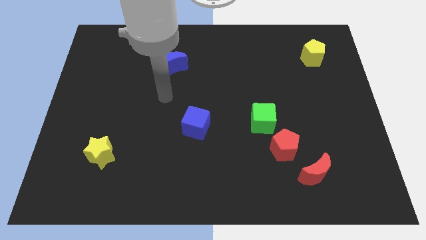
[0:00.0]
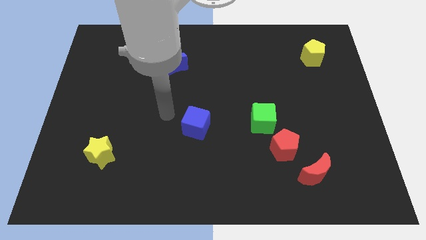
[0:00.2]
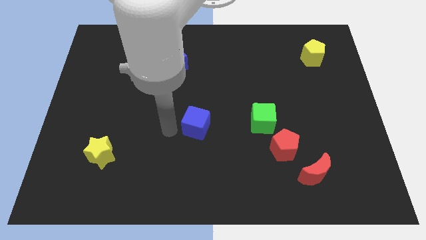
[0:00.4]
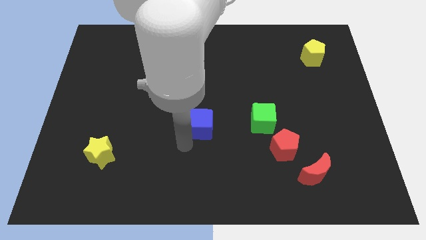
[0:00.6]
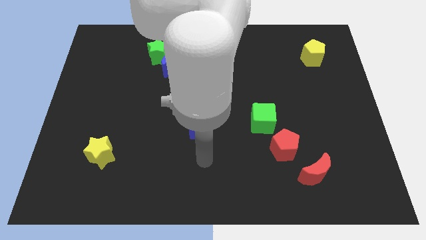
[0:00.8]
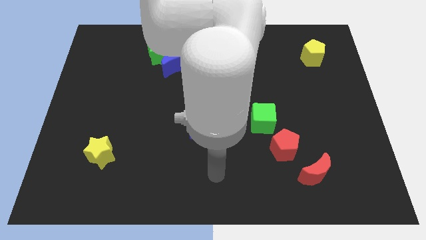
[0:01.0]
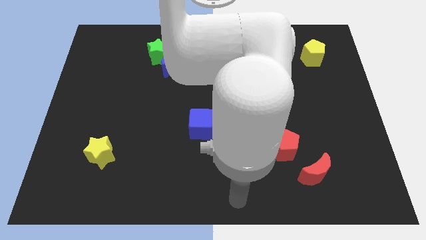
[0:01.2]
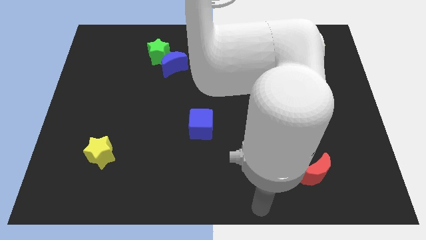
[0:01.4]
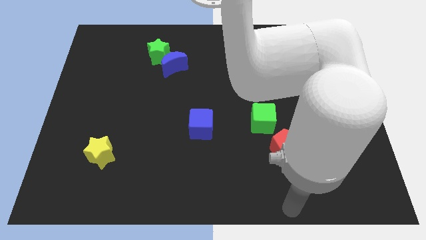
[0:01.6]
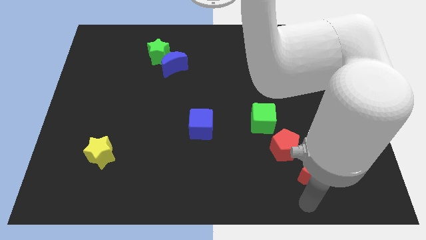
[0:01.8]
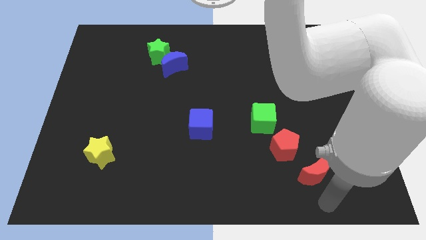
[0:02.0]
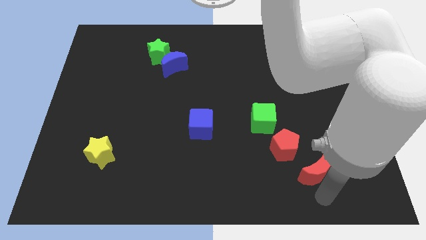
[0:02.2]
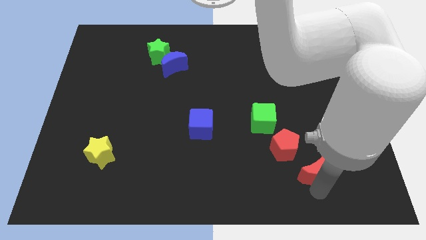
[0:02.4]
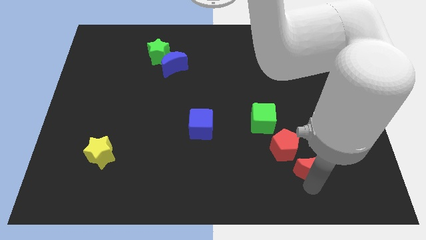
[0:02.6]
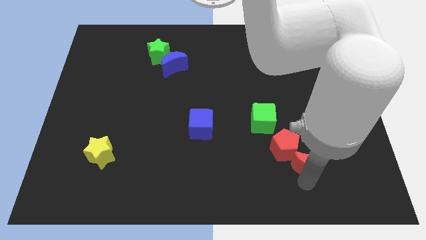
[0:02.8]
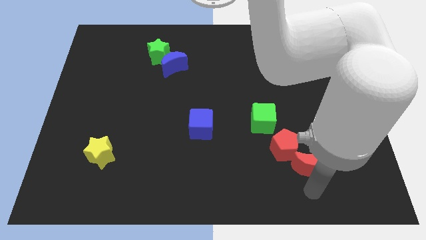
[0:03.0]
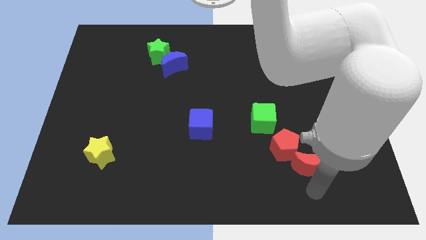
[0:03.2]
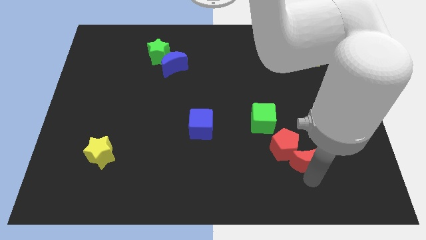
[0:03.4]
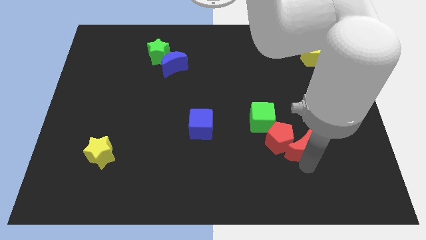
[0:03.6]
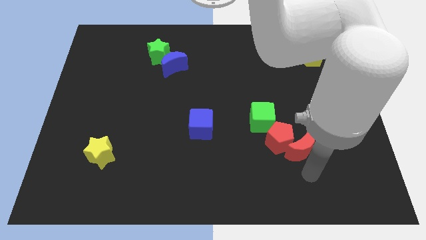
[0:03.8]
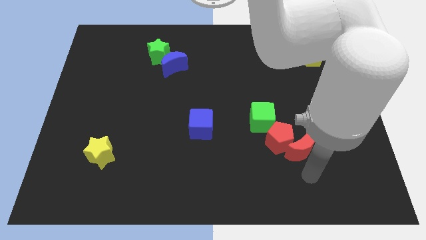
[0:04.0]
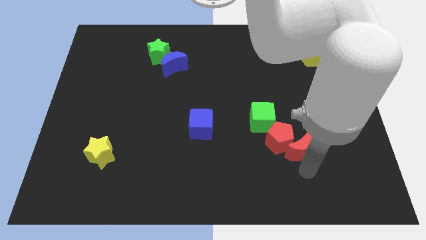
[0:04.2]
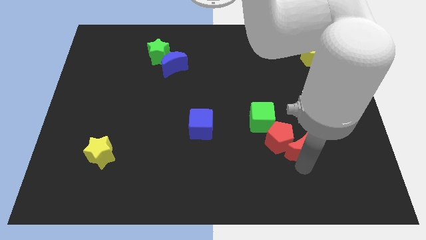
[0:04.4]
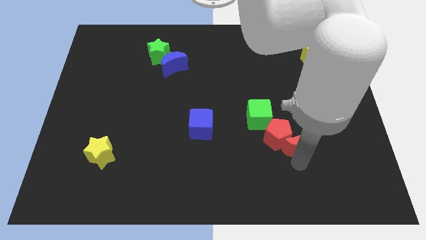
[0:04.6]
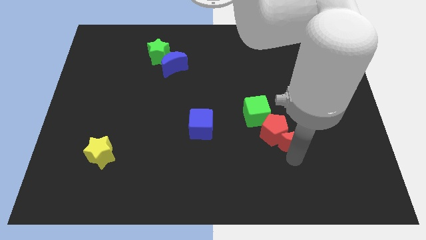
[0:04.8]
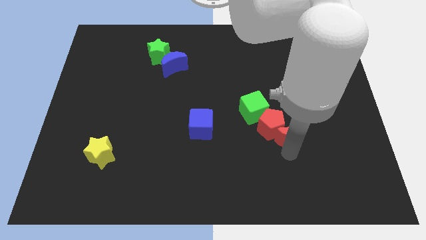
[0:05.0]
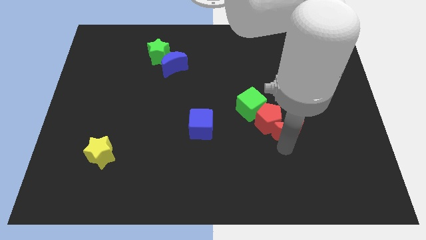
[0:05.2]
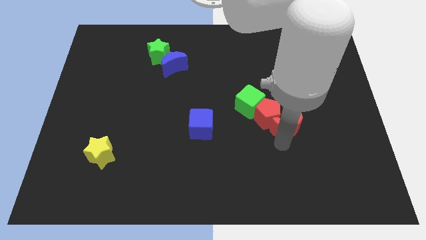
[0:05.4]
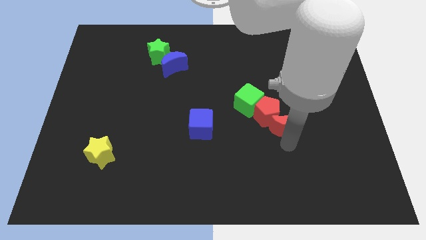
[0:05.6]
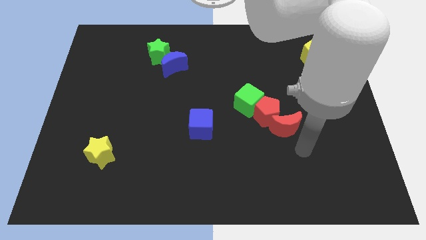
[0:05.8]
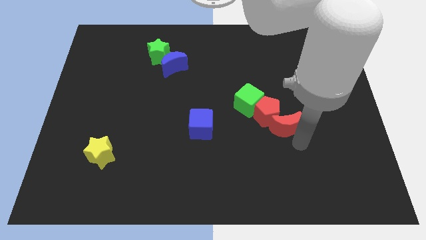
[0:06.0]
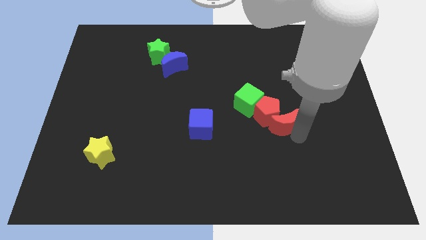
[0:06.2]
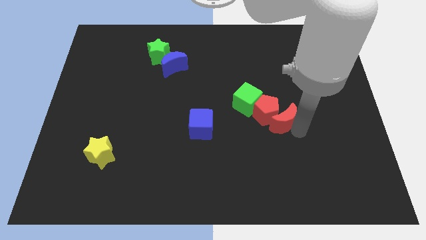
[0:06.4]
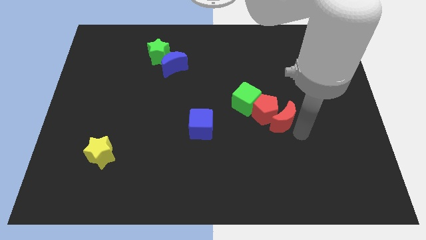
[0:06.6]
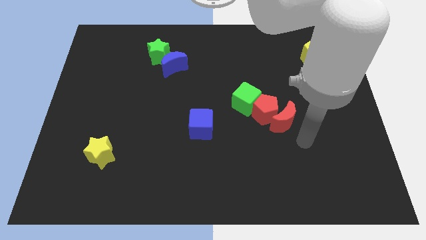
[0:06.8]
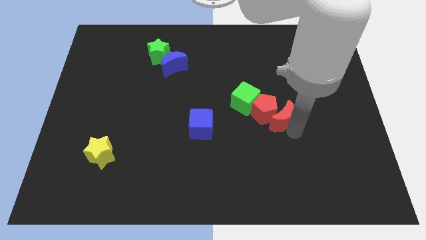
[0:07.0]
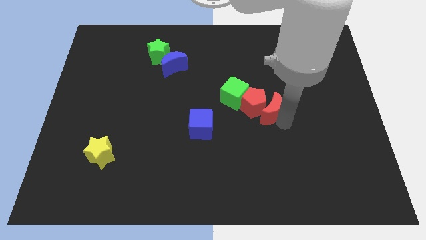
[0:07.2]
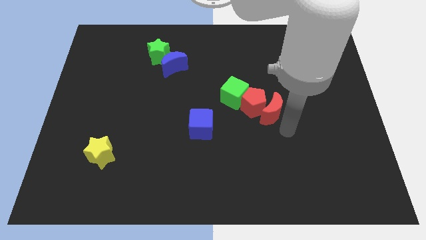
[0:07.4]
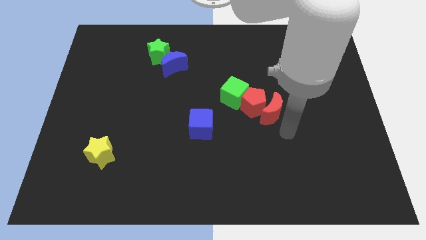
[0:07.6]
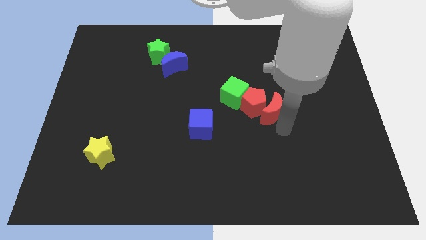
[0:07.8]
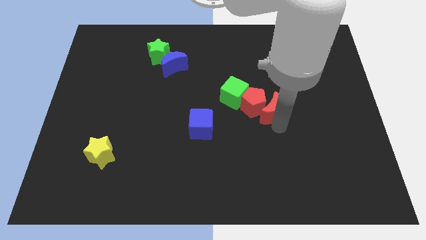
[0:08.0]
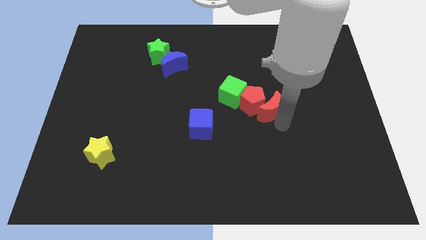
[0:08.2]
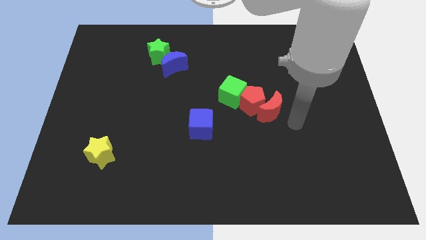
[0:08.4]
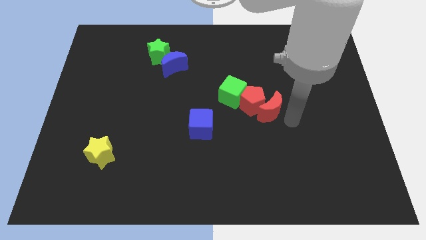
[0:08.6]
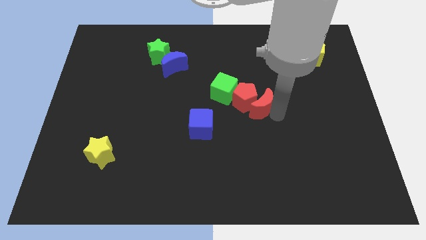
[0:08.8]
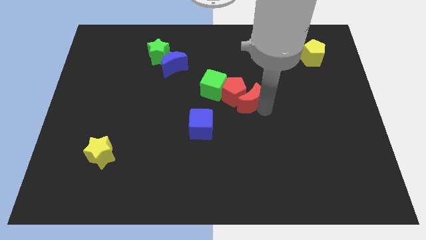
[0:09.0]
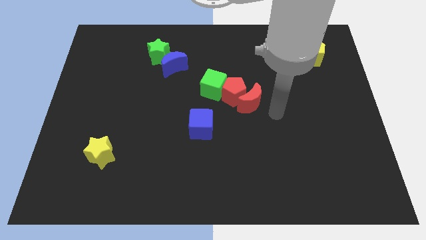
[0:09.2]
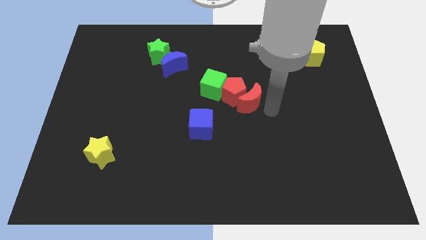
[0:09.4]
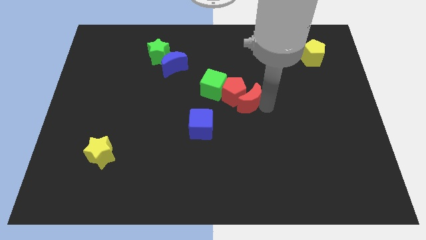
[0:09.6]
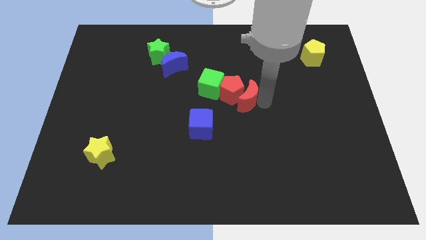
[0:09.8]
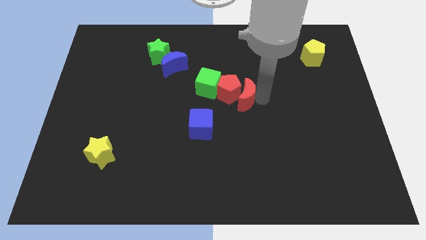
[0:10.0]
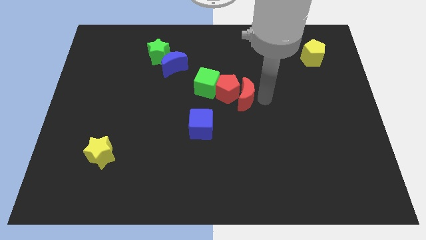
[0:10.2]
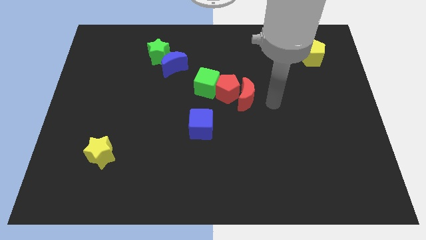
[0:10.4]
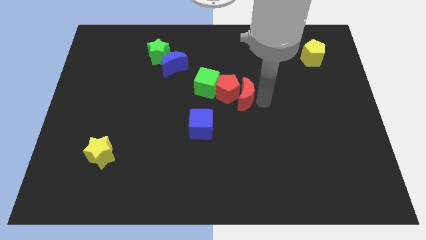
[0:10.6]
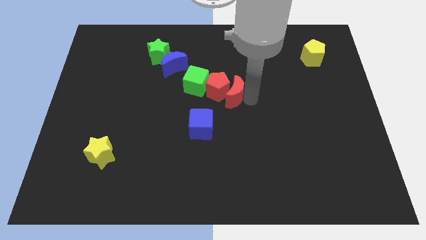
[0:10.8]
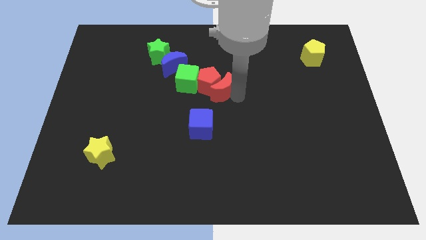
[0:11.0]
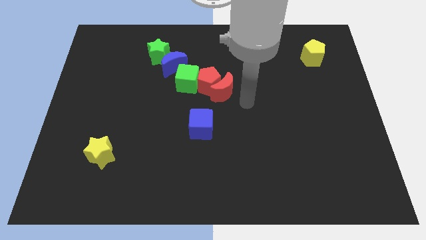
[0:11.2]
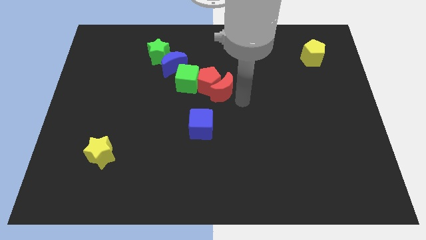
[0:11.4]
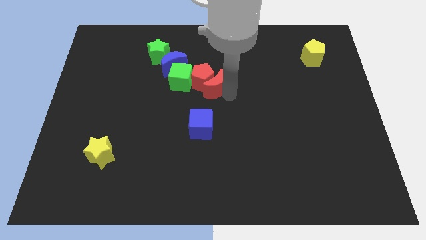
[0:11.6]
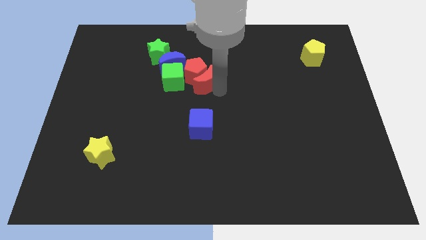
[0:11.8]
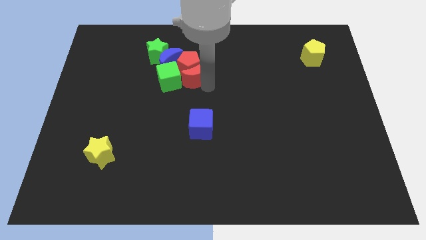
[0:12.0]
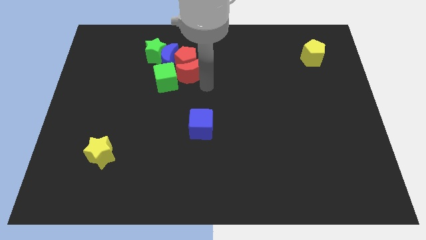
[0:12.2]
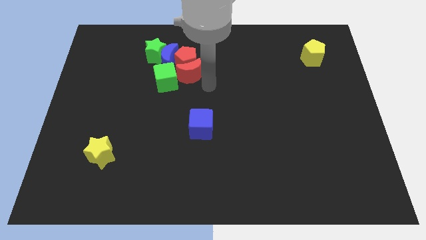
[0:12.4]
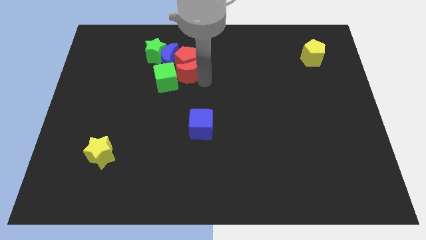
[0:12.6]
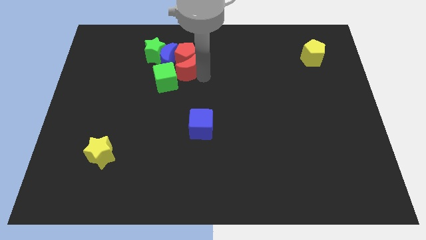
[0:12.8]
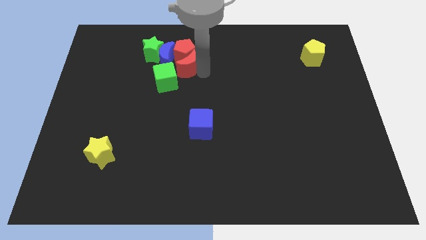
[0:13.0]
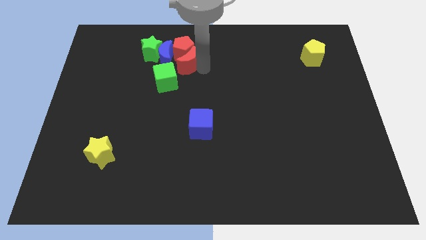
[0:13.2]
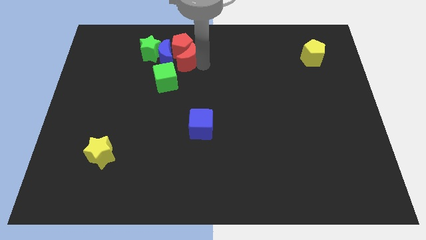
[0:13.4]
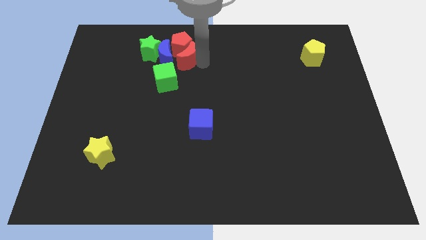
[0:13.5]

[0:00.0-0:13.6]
put the red moon close to the blue moon
